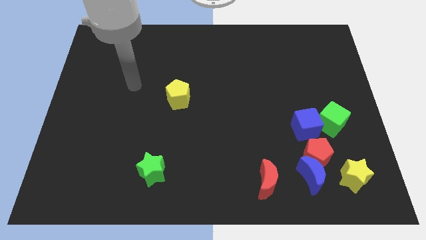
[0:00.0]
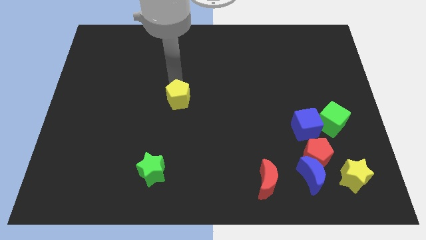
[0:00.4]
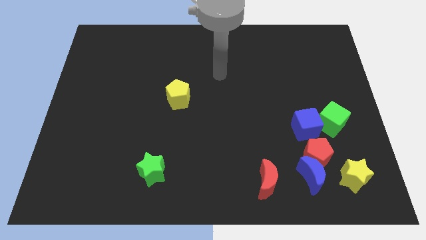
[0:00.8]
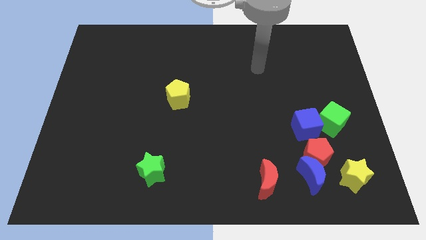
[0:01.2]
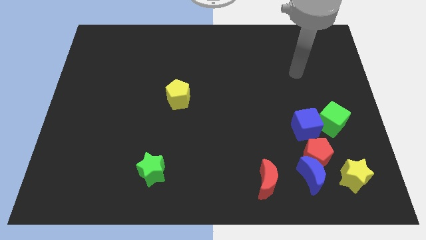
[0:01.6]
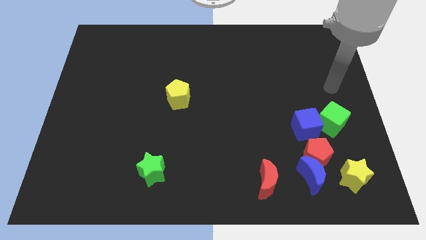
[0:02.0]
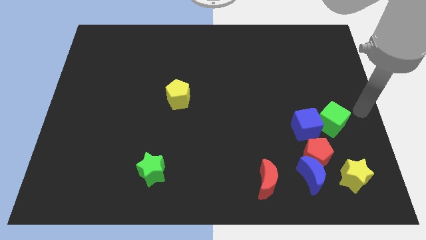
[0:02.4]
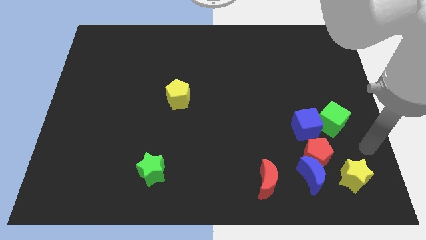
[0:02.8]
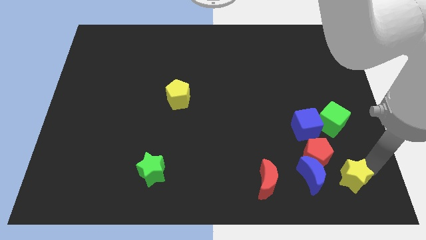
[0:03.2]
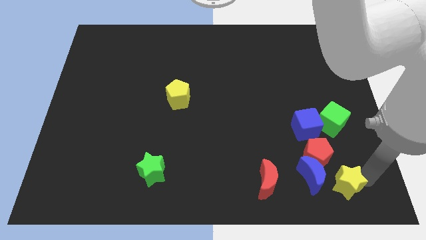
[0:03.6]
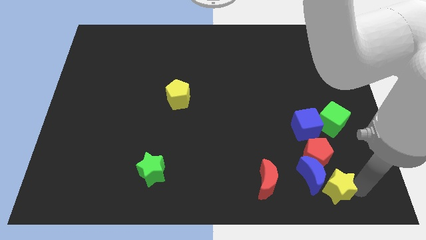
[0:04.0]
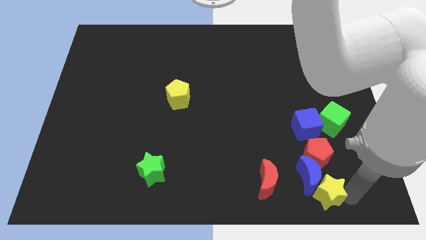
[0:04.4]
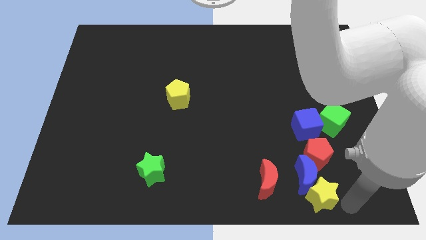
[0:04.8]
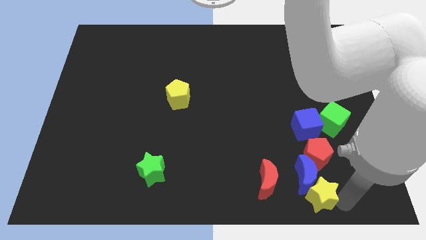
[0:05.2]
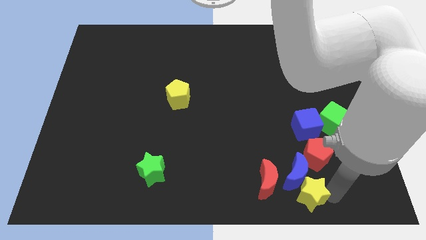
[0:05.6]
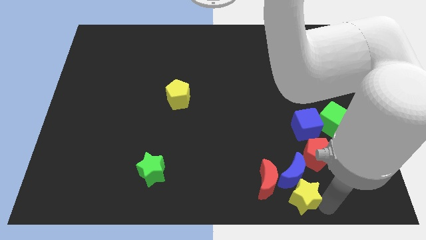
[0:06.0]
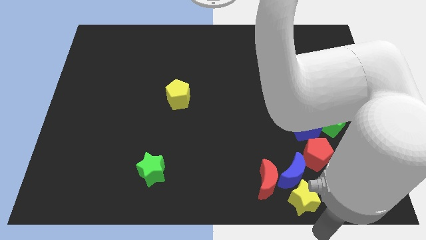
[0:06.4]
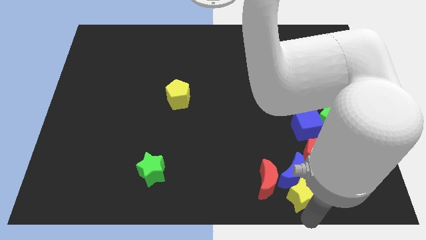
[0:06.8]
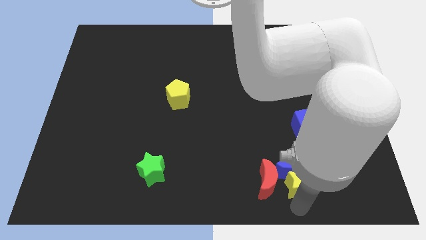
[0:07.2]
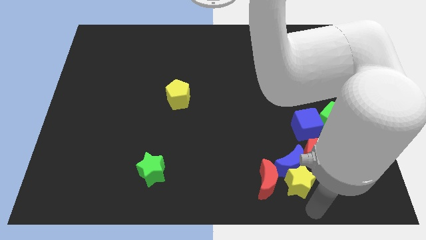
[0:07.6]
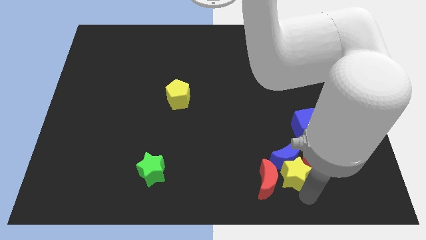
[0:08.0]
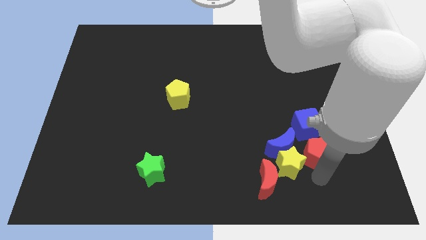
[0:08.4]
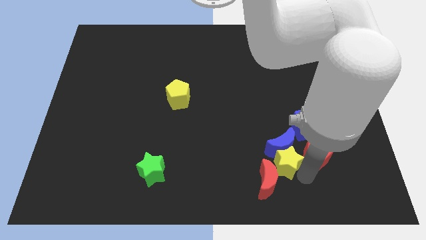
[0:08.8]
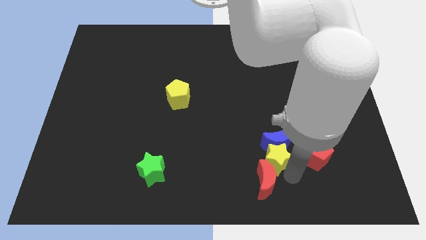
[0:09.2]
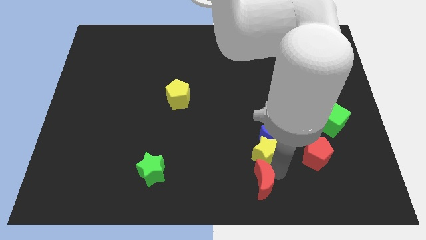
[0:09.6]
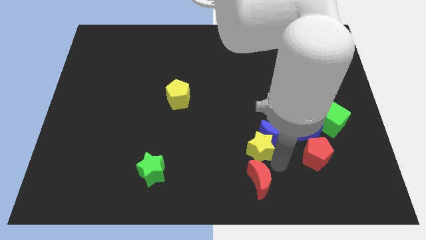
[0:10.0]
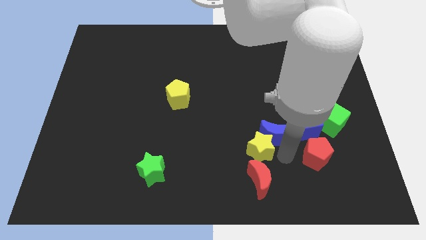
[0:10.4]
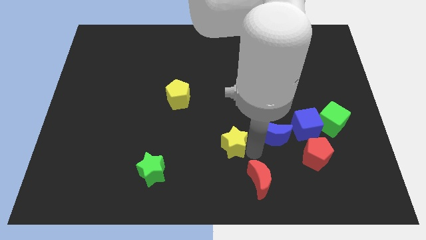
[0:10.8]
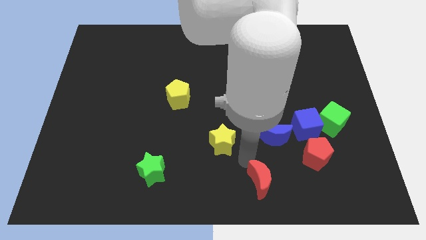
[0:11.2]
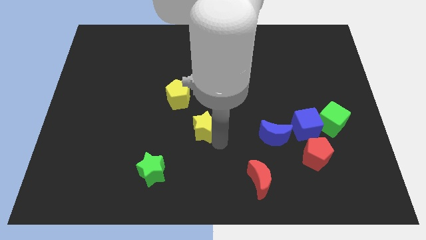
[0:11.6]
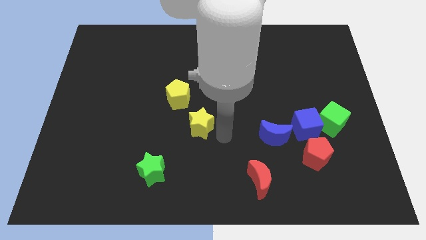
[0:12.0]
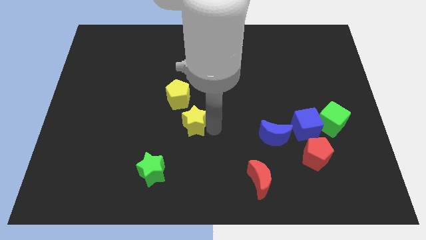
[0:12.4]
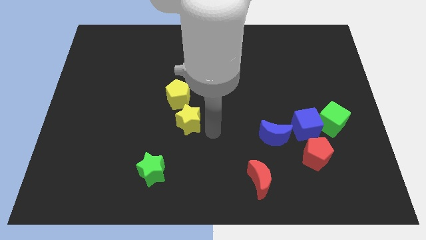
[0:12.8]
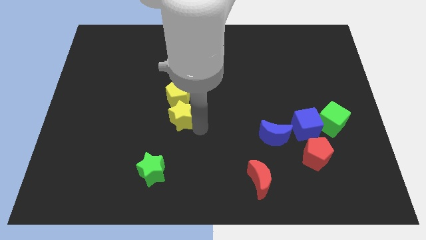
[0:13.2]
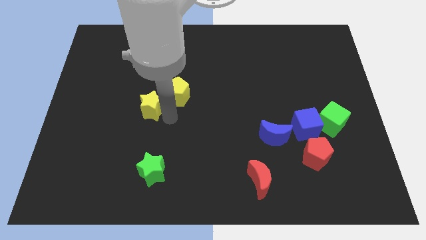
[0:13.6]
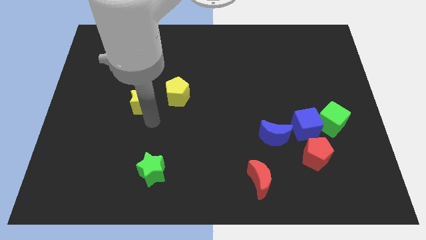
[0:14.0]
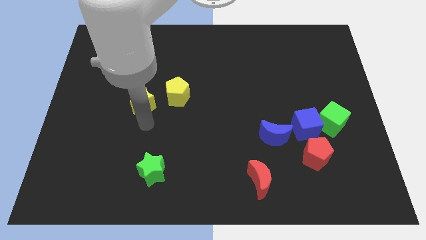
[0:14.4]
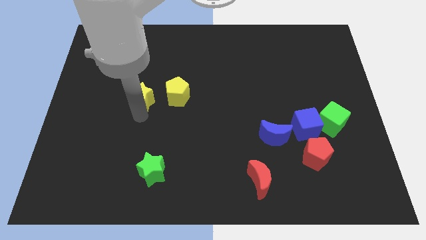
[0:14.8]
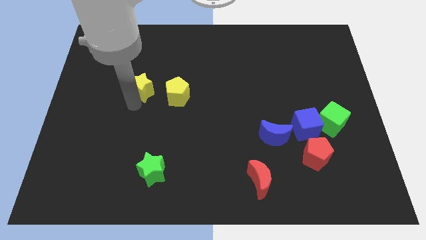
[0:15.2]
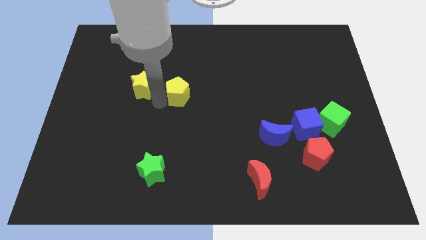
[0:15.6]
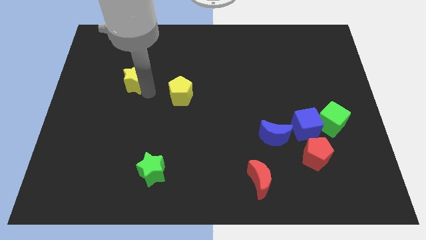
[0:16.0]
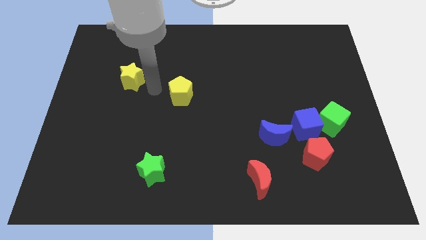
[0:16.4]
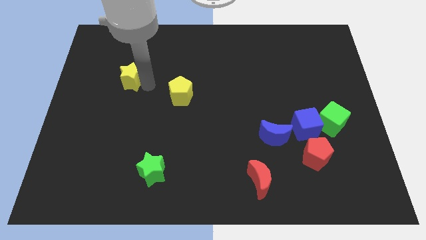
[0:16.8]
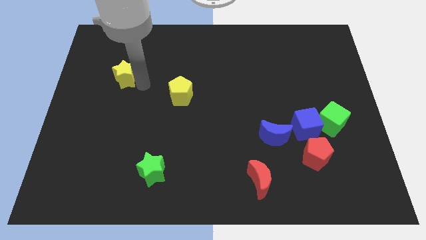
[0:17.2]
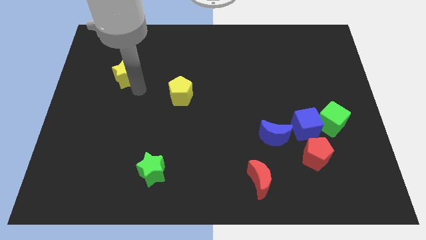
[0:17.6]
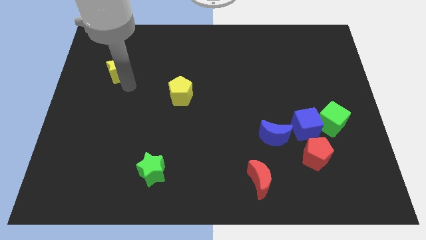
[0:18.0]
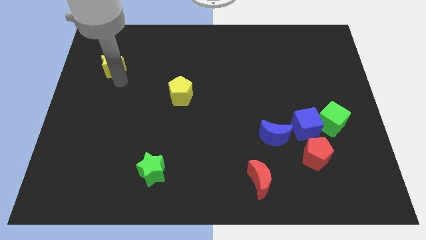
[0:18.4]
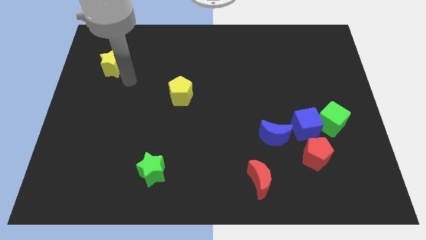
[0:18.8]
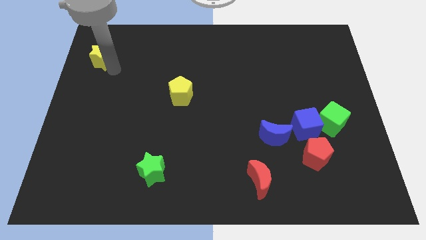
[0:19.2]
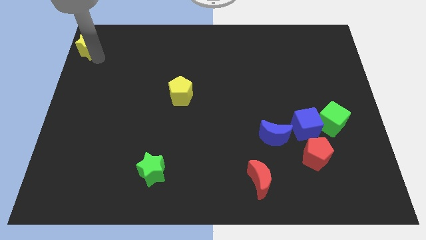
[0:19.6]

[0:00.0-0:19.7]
push the yellow star to the top left corner

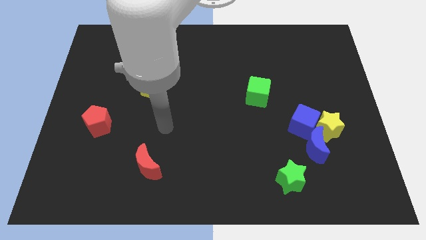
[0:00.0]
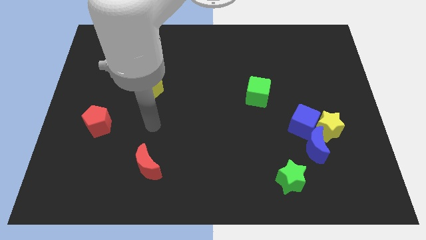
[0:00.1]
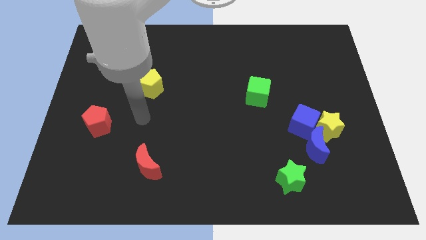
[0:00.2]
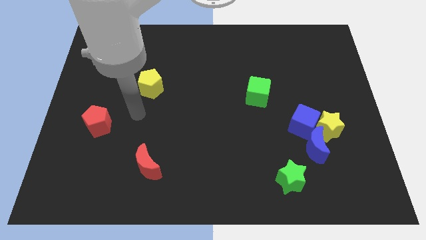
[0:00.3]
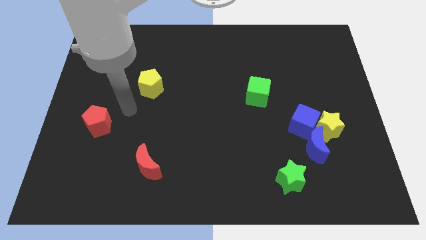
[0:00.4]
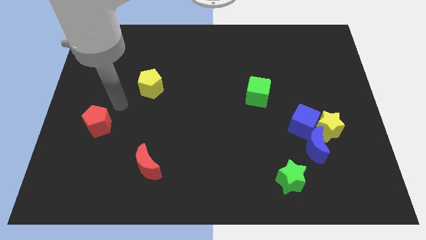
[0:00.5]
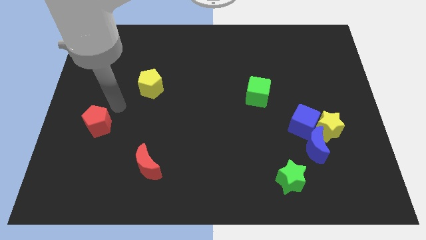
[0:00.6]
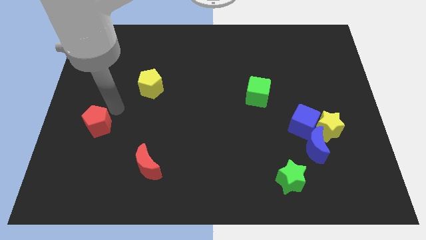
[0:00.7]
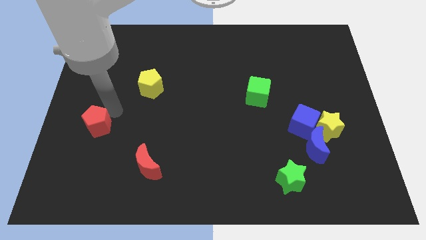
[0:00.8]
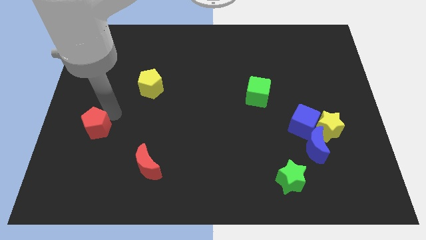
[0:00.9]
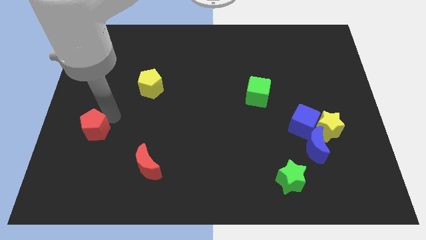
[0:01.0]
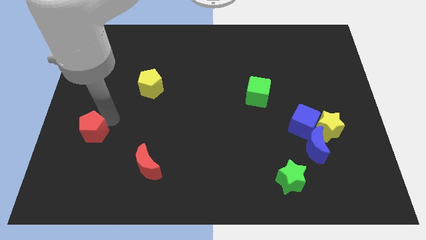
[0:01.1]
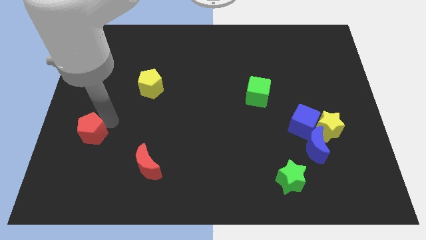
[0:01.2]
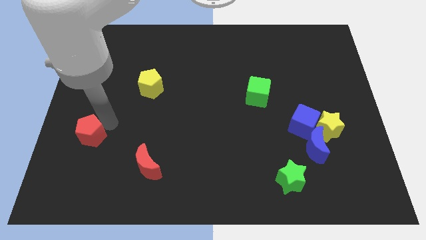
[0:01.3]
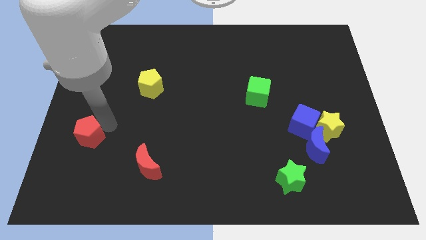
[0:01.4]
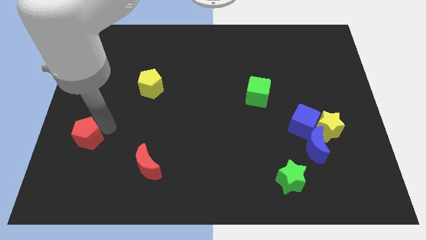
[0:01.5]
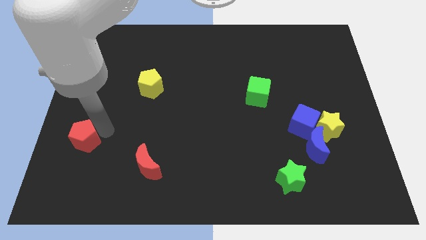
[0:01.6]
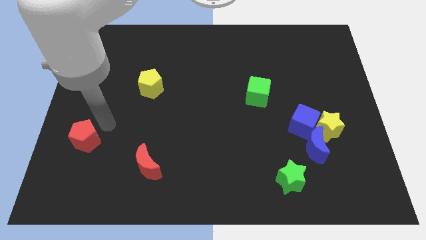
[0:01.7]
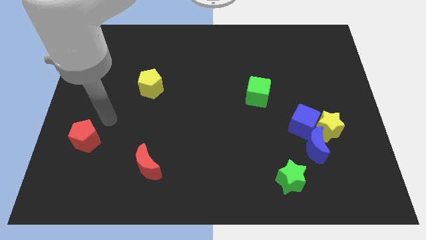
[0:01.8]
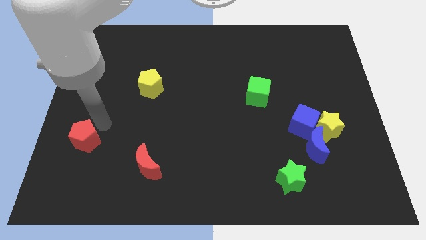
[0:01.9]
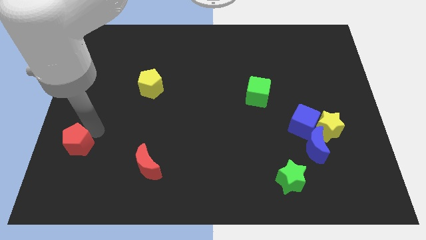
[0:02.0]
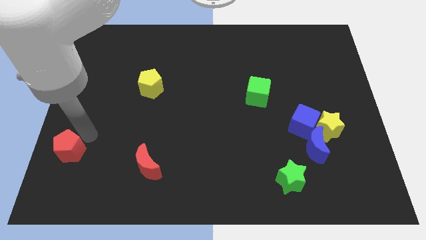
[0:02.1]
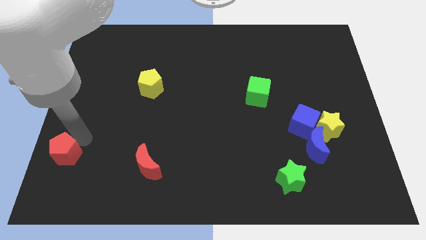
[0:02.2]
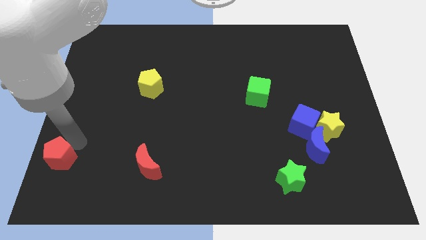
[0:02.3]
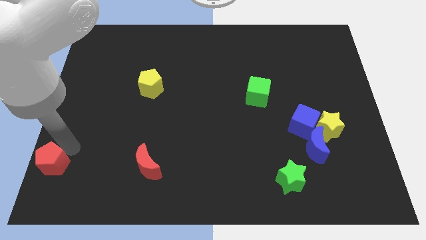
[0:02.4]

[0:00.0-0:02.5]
slide the red pentagon to the bottom left of the board

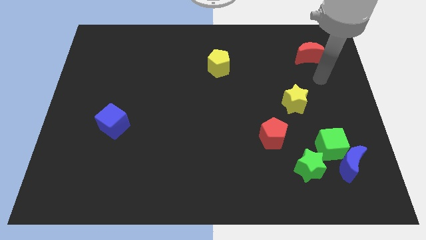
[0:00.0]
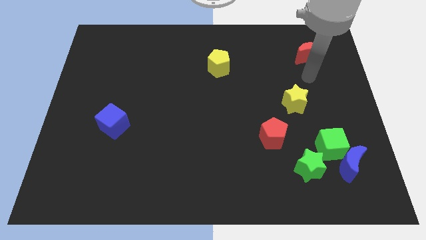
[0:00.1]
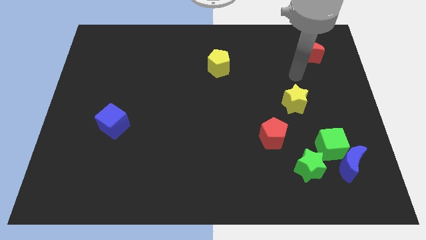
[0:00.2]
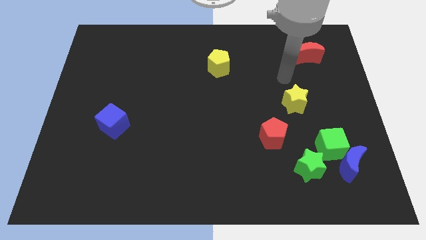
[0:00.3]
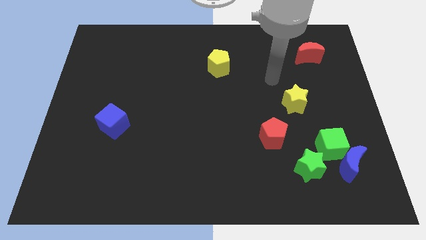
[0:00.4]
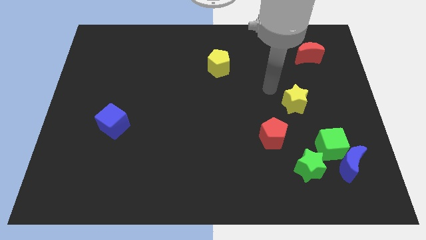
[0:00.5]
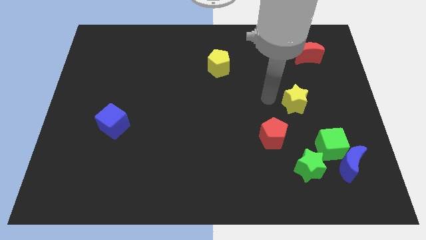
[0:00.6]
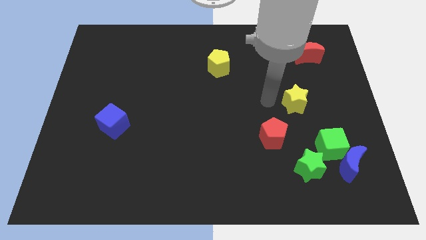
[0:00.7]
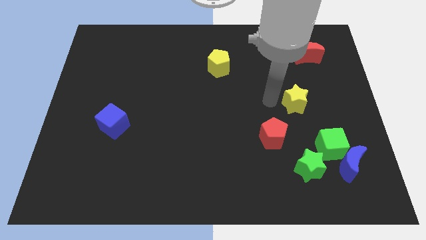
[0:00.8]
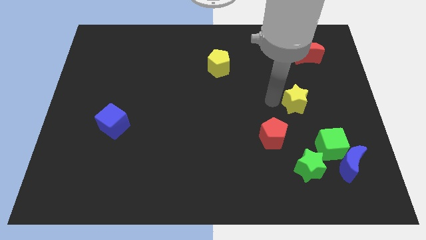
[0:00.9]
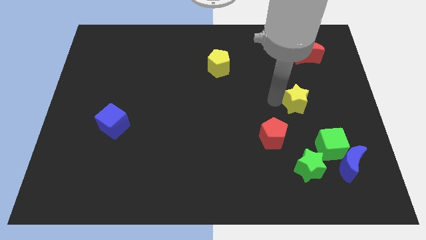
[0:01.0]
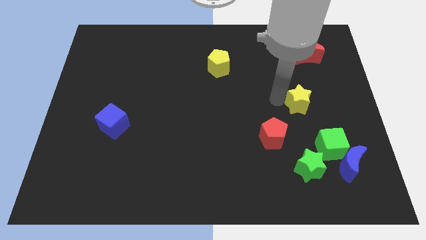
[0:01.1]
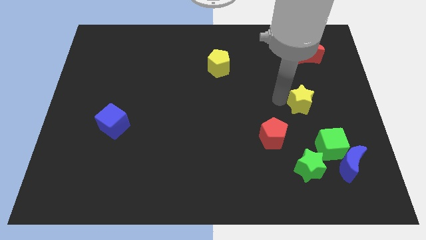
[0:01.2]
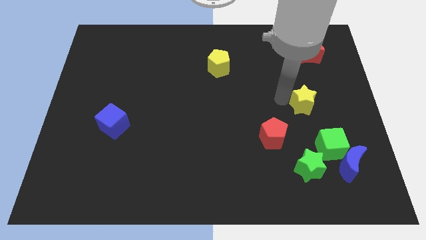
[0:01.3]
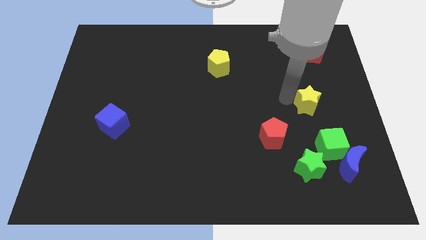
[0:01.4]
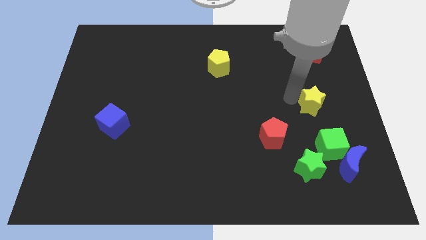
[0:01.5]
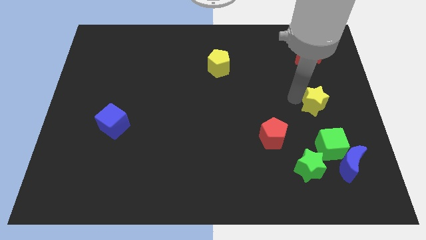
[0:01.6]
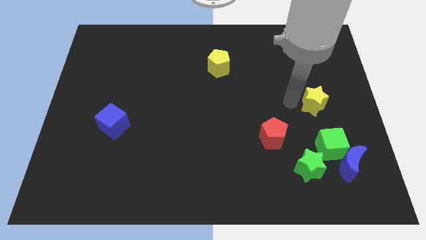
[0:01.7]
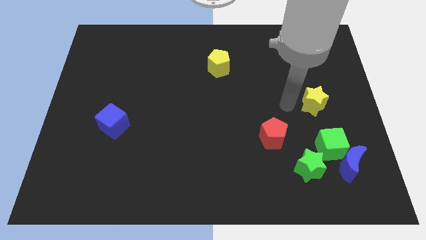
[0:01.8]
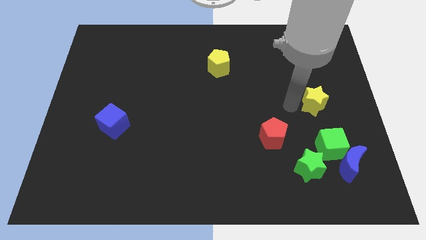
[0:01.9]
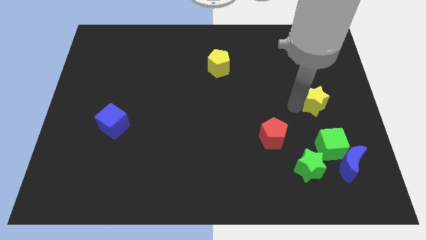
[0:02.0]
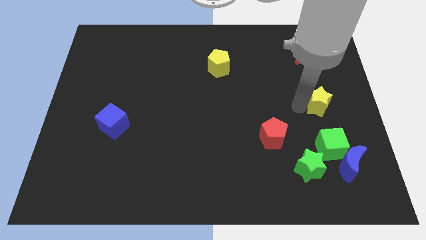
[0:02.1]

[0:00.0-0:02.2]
push the yellow star to the right side
